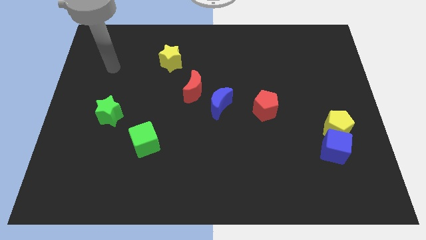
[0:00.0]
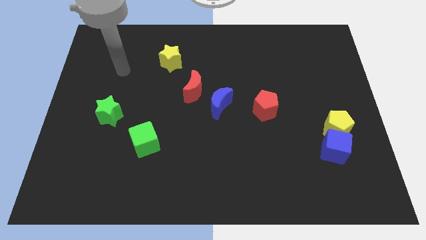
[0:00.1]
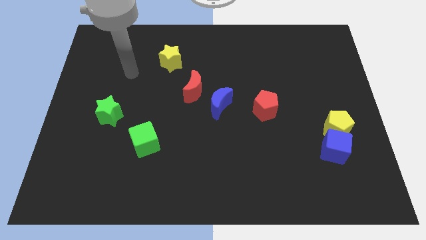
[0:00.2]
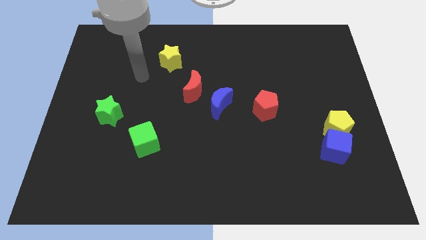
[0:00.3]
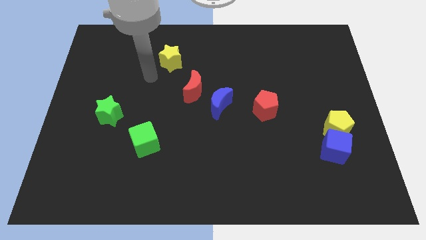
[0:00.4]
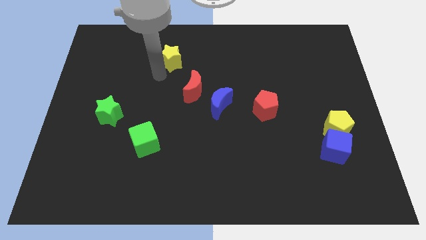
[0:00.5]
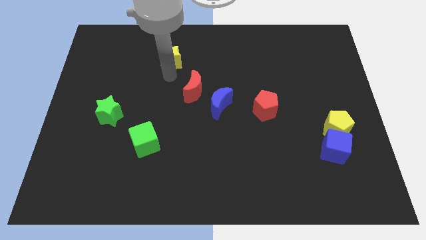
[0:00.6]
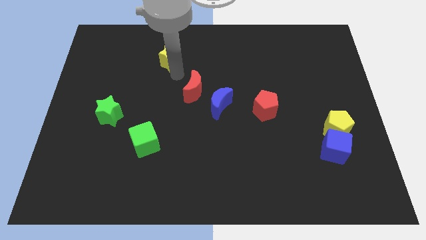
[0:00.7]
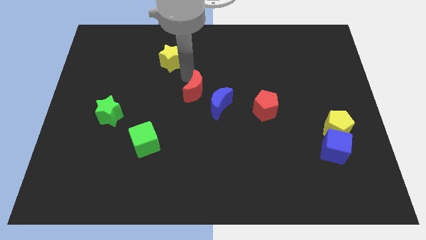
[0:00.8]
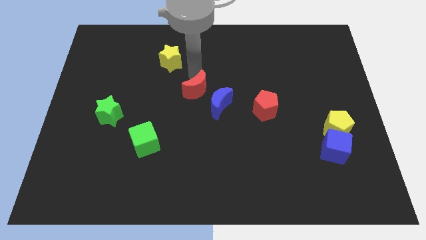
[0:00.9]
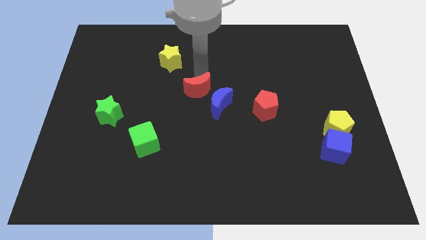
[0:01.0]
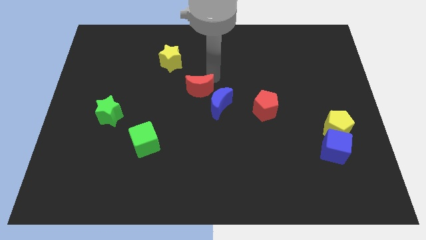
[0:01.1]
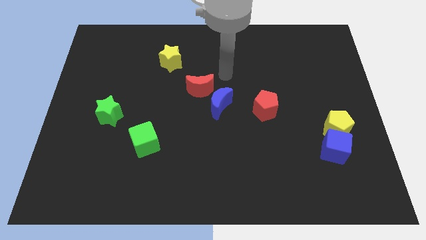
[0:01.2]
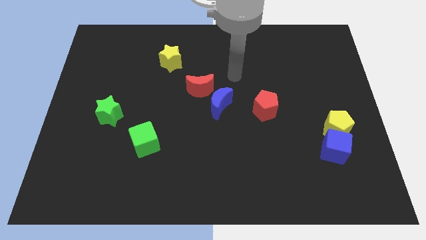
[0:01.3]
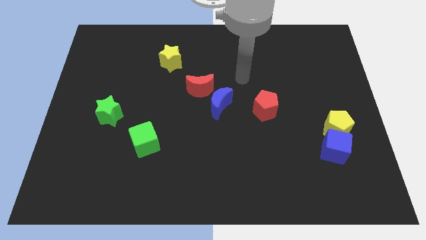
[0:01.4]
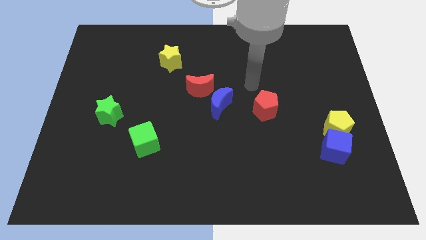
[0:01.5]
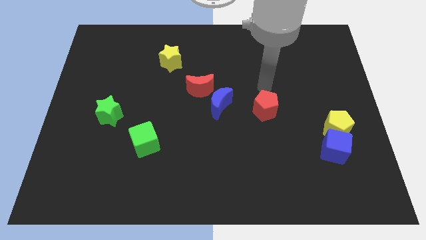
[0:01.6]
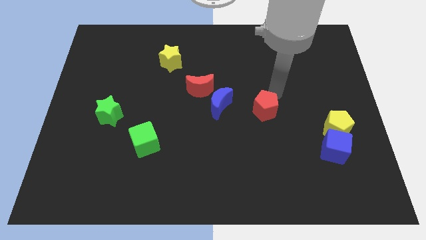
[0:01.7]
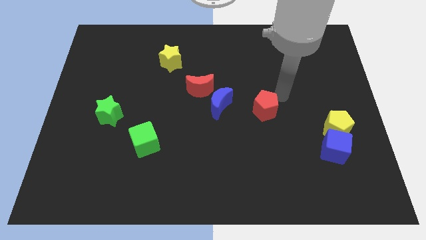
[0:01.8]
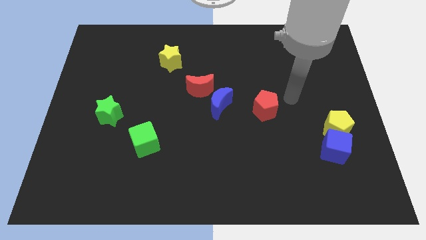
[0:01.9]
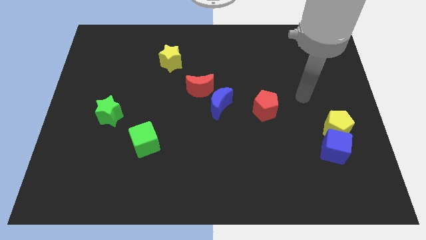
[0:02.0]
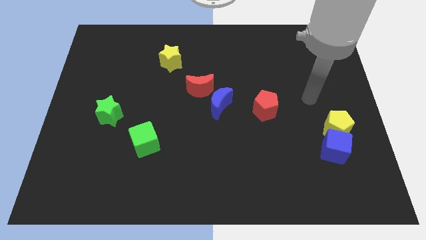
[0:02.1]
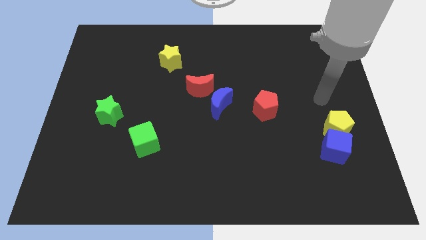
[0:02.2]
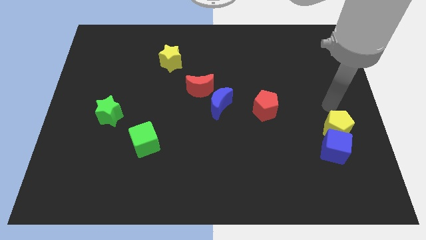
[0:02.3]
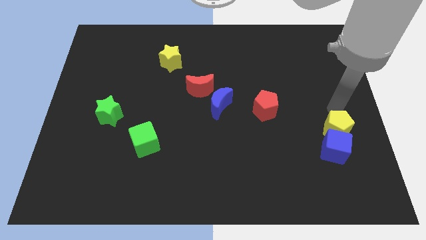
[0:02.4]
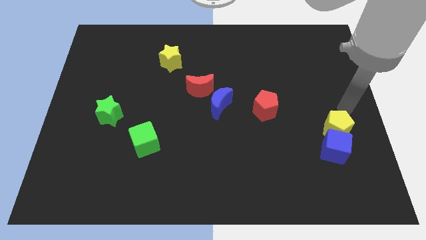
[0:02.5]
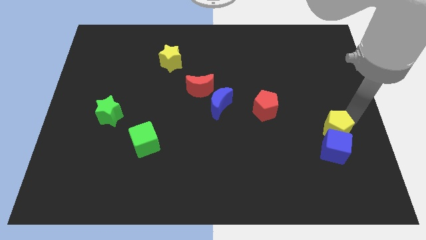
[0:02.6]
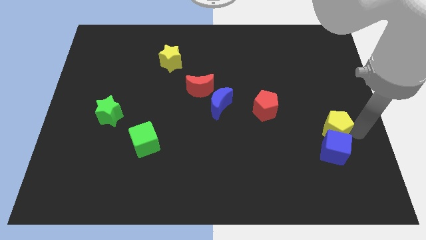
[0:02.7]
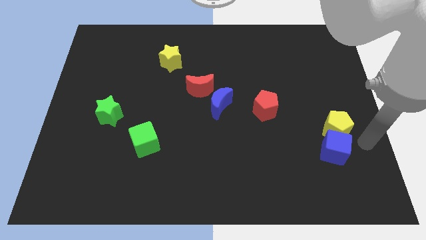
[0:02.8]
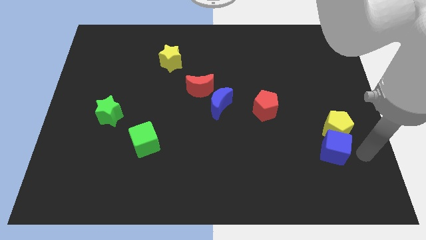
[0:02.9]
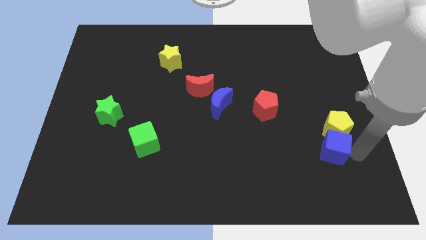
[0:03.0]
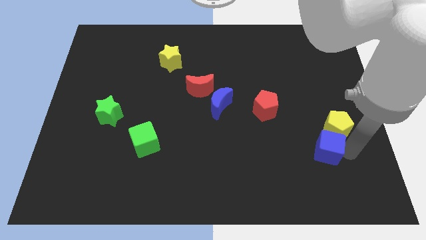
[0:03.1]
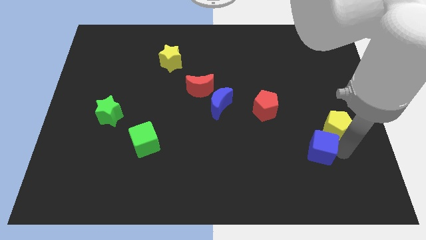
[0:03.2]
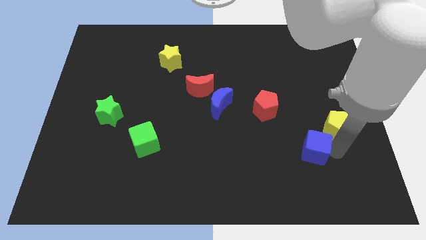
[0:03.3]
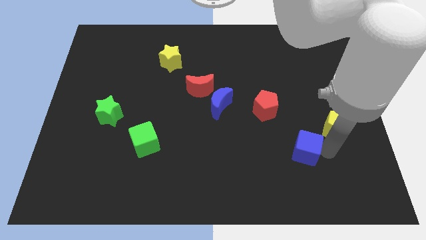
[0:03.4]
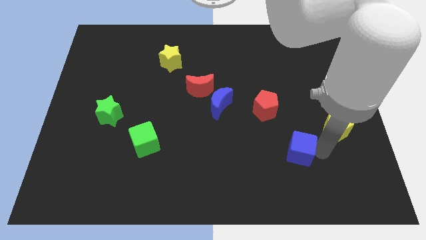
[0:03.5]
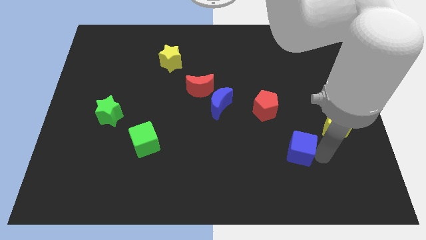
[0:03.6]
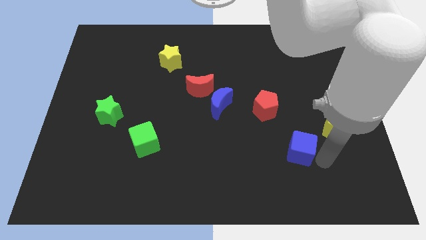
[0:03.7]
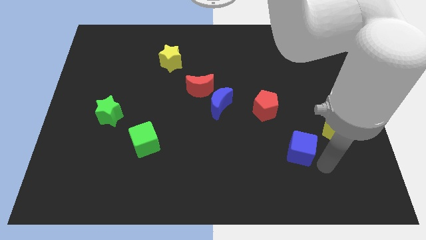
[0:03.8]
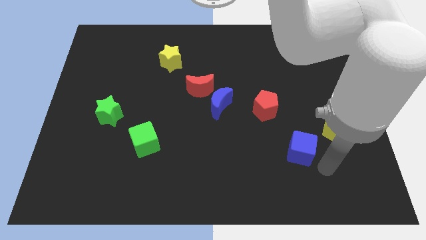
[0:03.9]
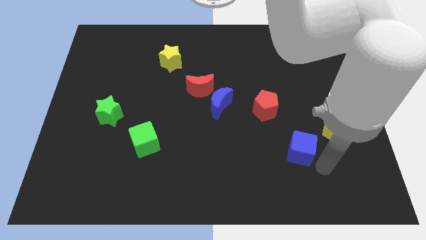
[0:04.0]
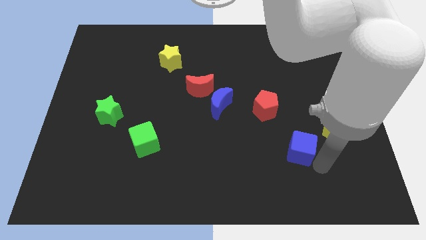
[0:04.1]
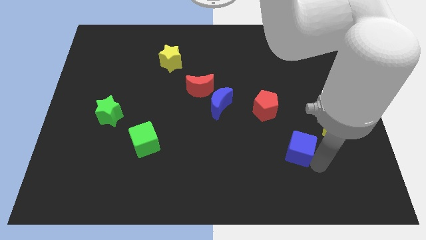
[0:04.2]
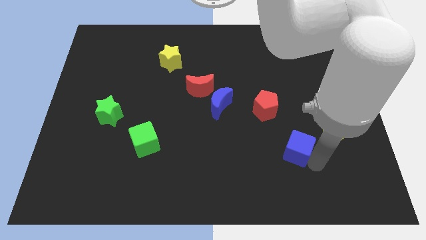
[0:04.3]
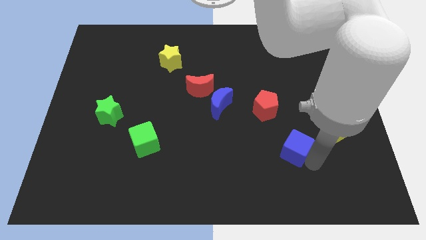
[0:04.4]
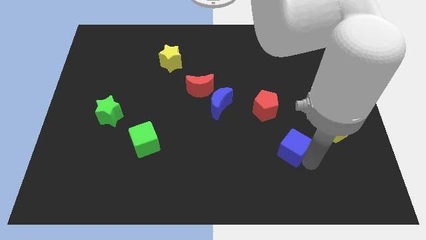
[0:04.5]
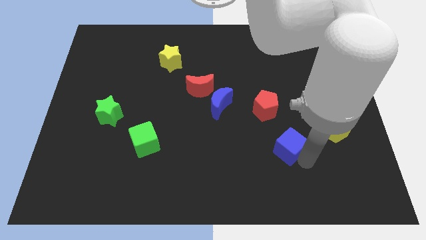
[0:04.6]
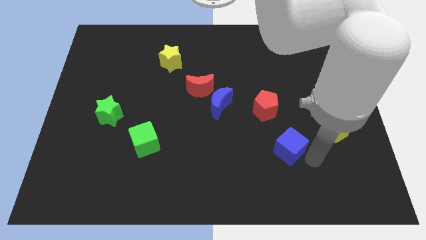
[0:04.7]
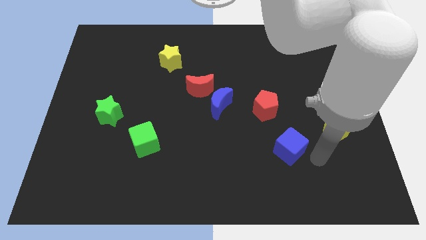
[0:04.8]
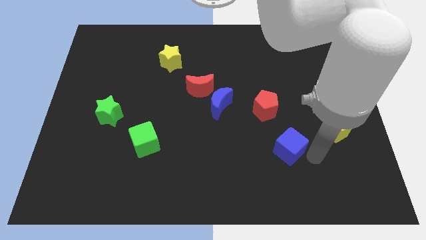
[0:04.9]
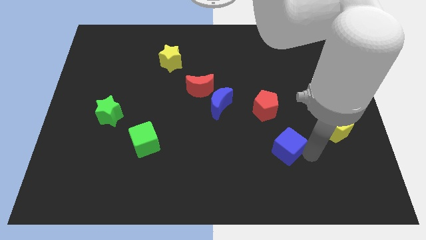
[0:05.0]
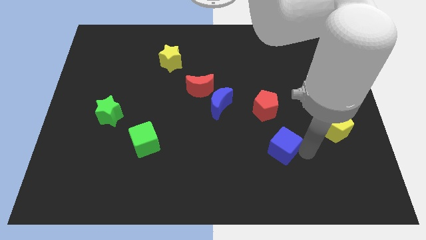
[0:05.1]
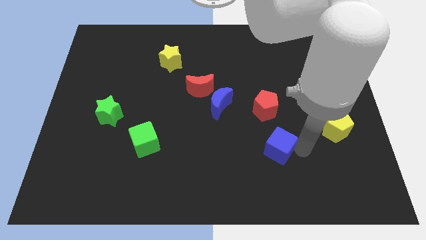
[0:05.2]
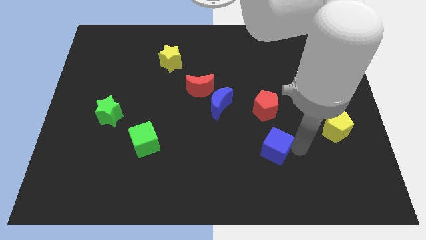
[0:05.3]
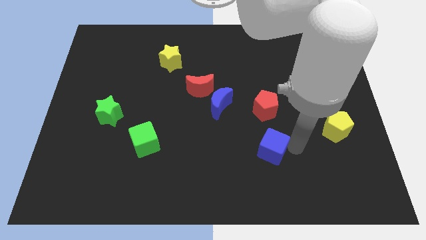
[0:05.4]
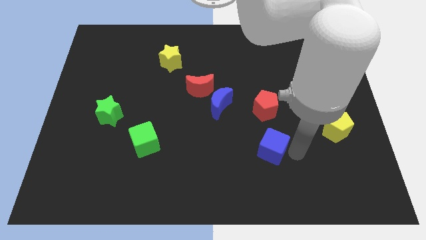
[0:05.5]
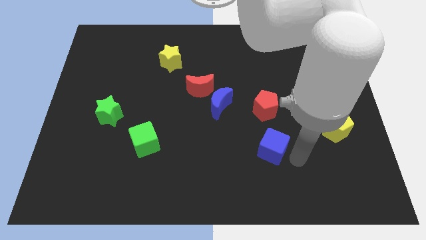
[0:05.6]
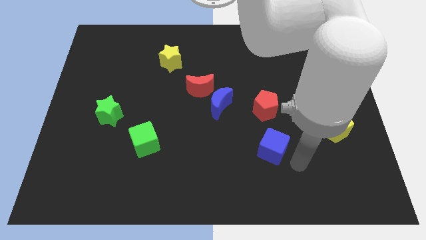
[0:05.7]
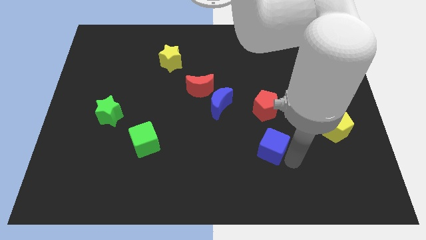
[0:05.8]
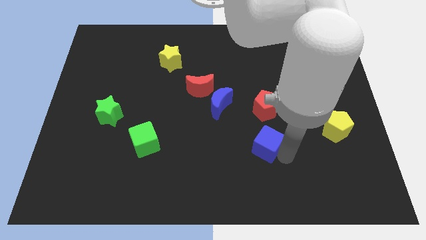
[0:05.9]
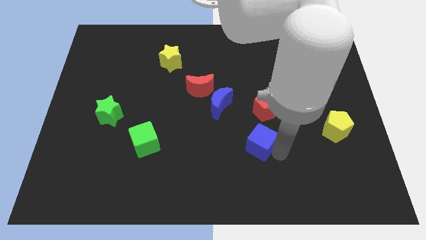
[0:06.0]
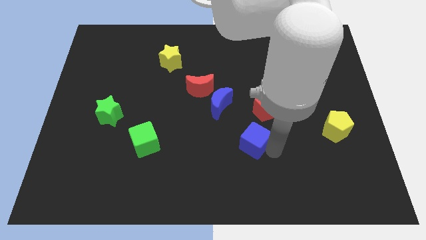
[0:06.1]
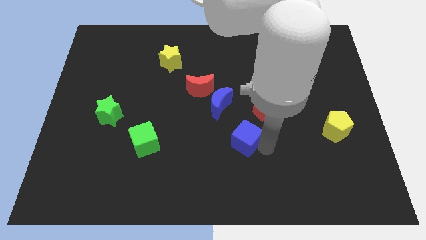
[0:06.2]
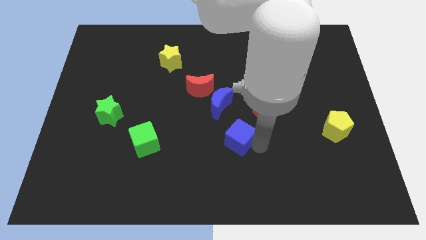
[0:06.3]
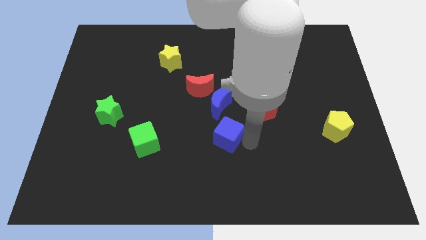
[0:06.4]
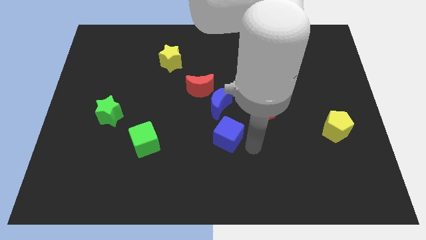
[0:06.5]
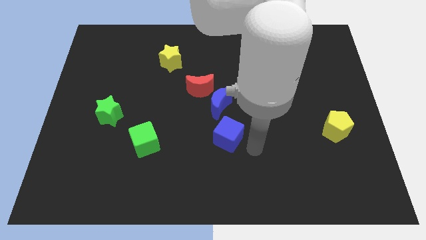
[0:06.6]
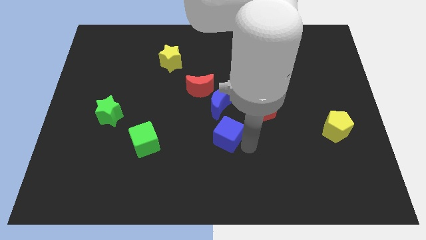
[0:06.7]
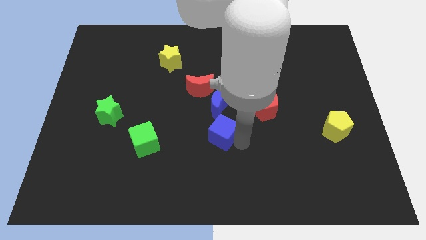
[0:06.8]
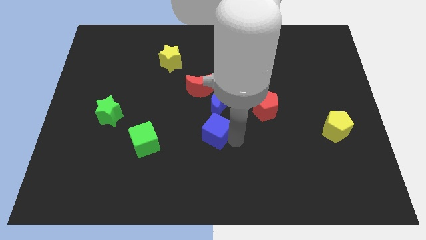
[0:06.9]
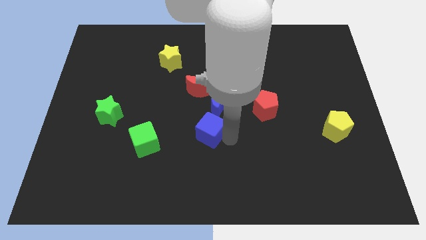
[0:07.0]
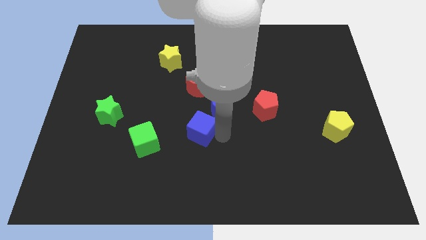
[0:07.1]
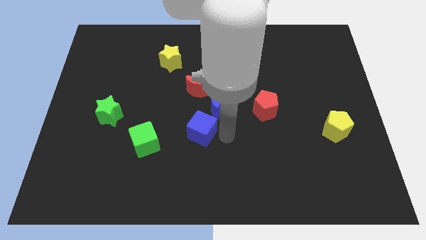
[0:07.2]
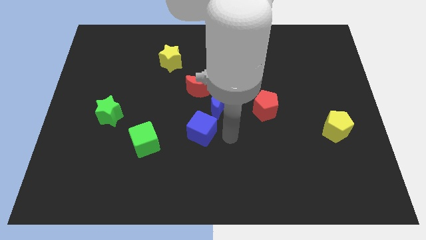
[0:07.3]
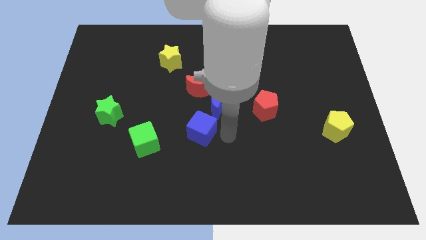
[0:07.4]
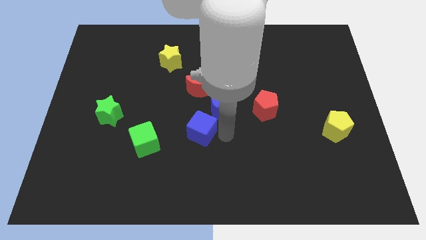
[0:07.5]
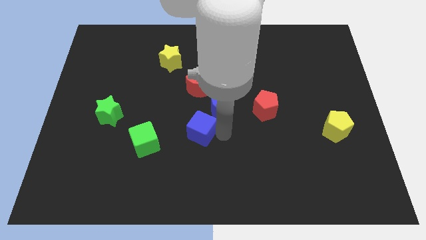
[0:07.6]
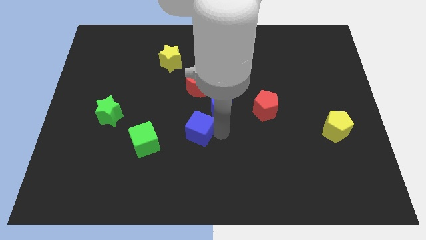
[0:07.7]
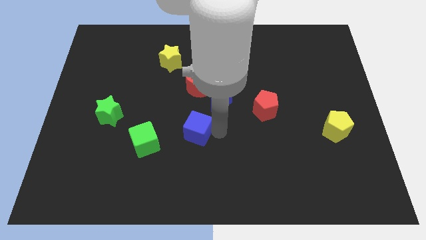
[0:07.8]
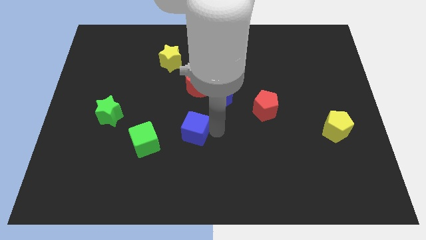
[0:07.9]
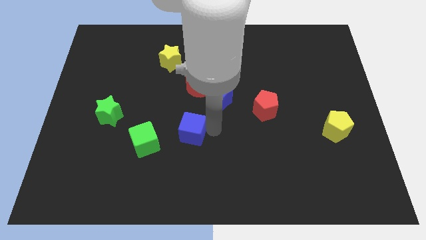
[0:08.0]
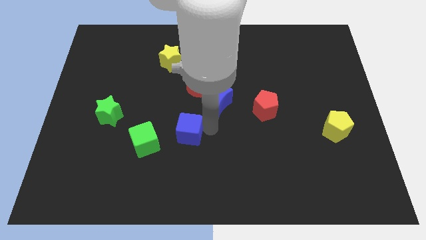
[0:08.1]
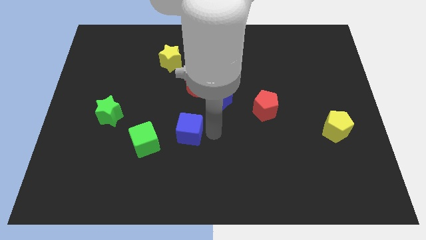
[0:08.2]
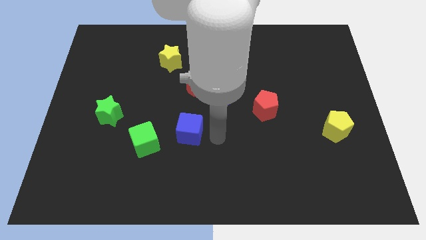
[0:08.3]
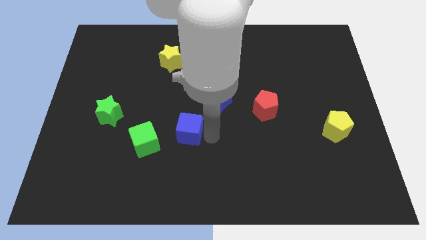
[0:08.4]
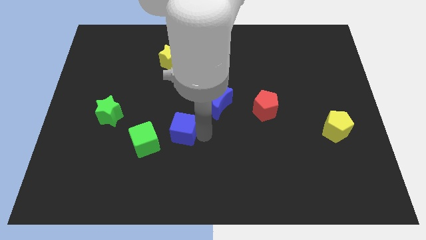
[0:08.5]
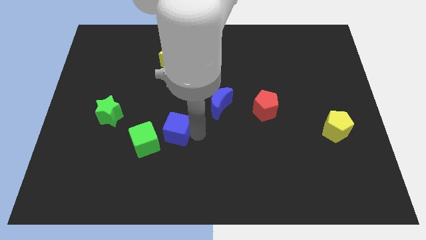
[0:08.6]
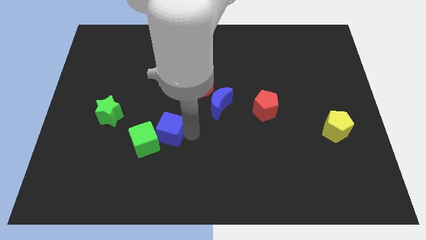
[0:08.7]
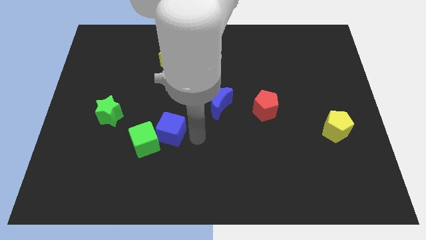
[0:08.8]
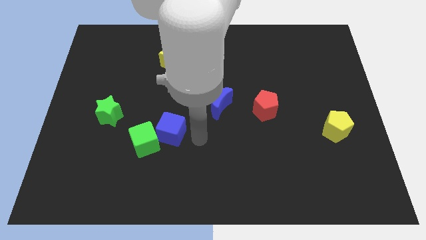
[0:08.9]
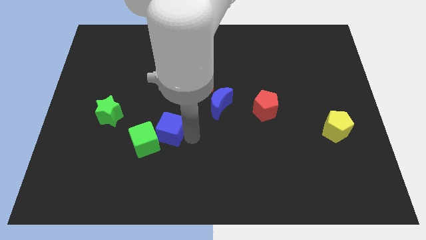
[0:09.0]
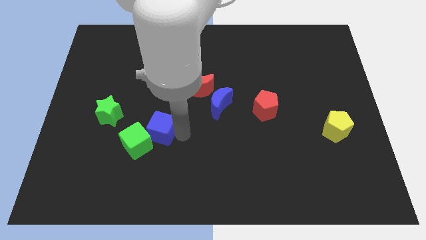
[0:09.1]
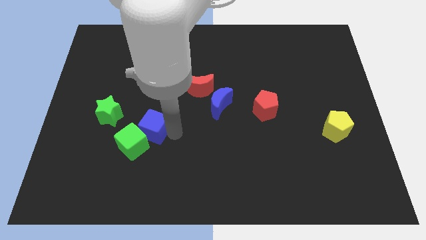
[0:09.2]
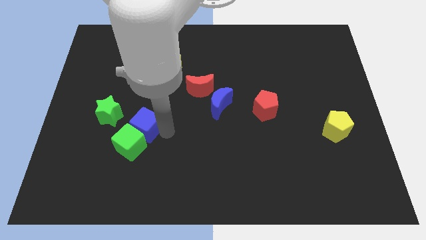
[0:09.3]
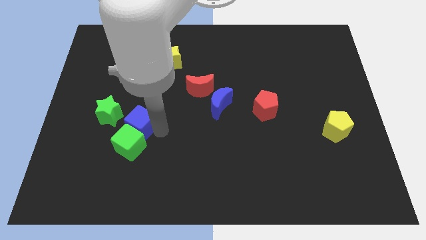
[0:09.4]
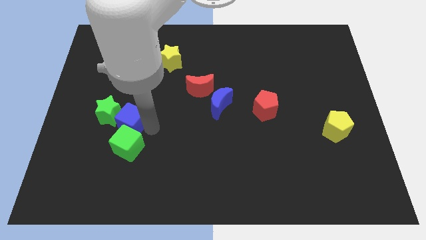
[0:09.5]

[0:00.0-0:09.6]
move the blue cube towards the green star
